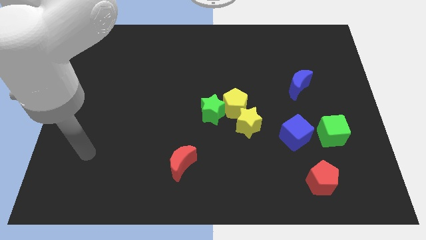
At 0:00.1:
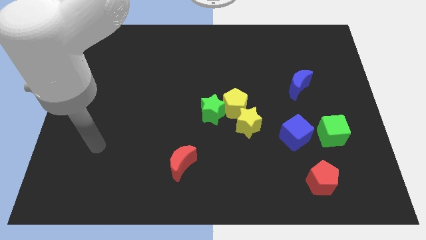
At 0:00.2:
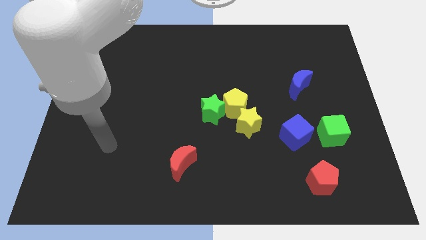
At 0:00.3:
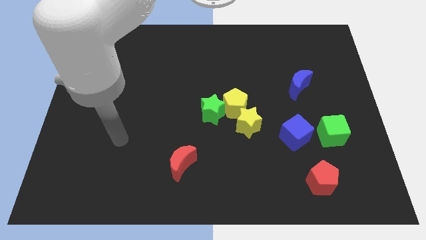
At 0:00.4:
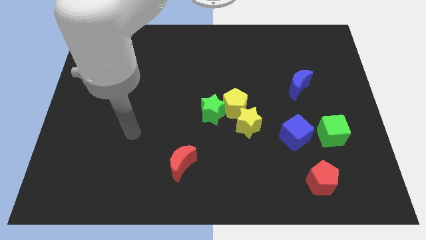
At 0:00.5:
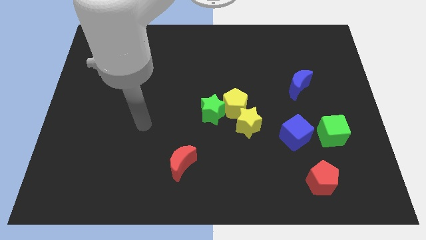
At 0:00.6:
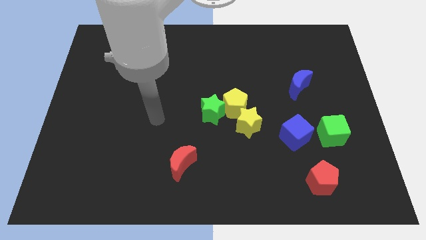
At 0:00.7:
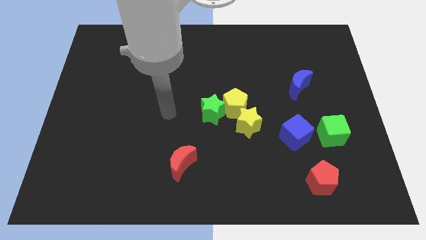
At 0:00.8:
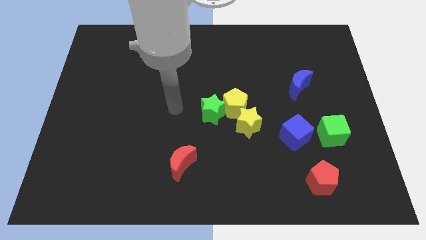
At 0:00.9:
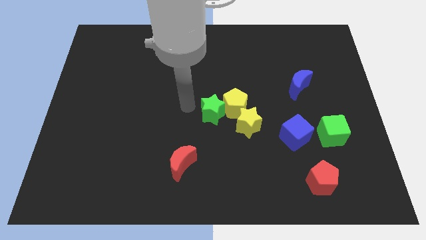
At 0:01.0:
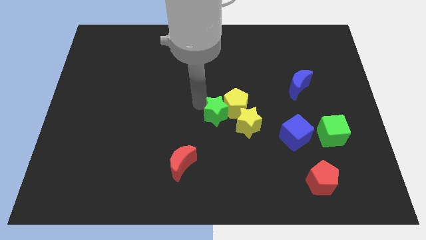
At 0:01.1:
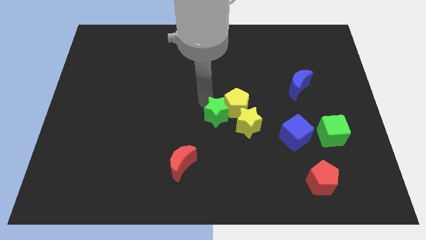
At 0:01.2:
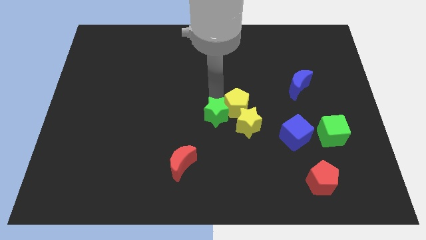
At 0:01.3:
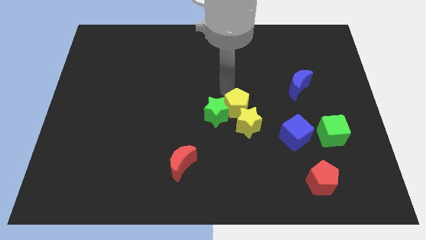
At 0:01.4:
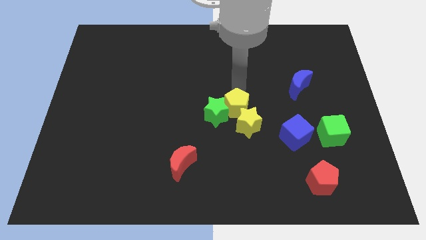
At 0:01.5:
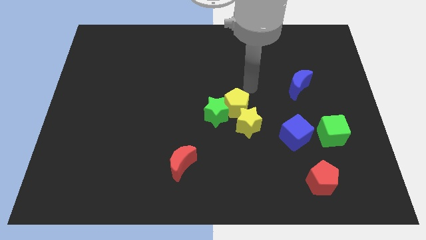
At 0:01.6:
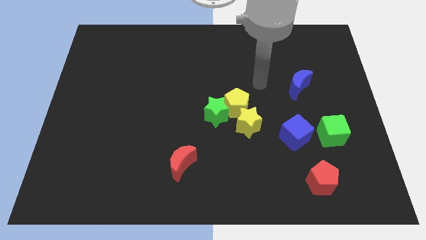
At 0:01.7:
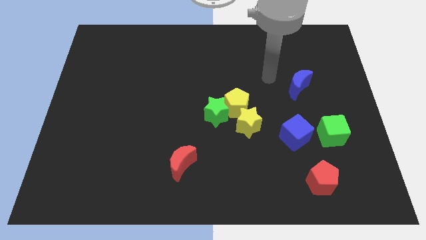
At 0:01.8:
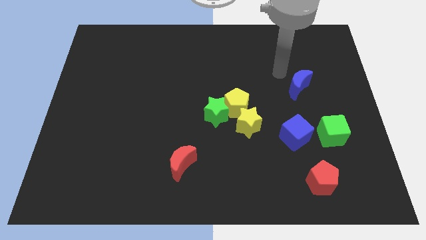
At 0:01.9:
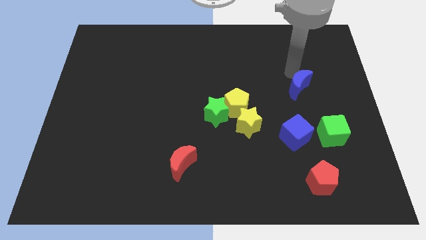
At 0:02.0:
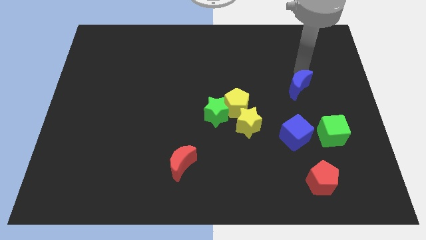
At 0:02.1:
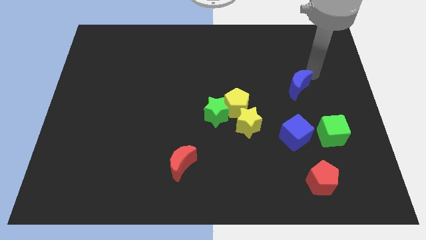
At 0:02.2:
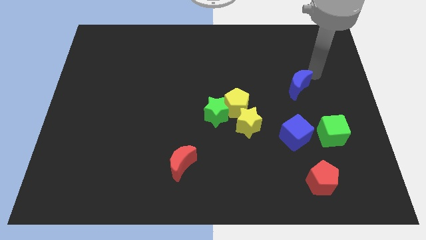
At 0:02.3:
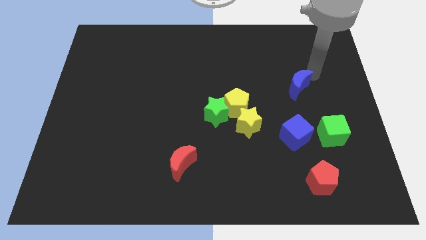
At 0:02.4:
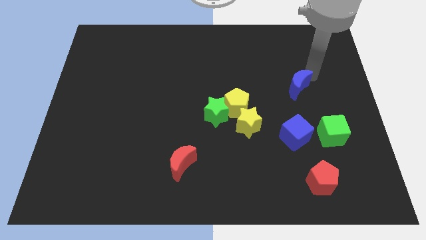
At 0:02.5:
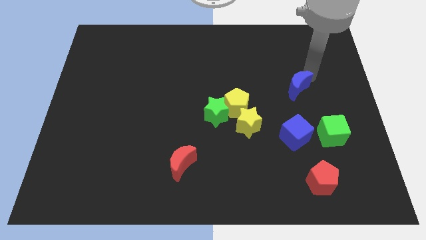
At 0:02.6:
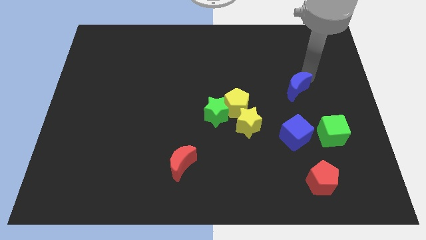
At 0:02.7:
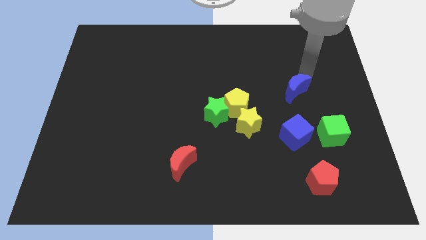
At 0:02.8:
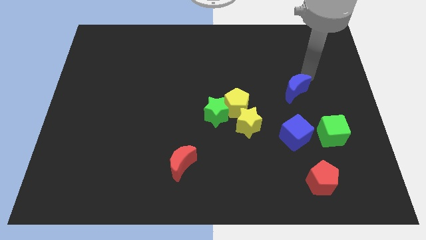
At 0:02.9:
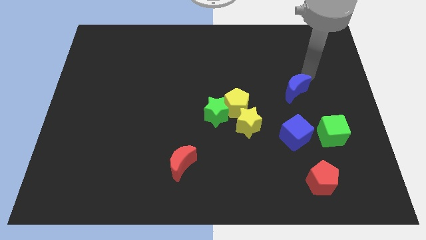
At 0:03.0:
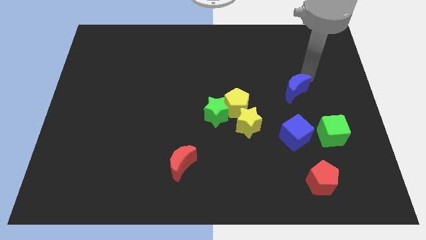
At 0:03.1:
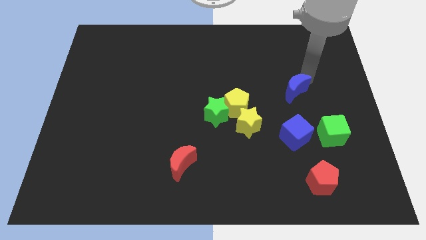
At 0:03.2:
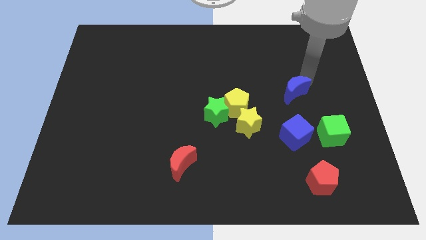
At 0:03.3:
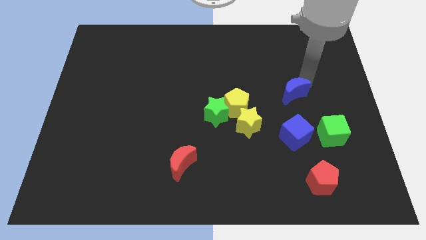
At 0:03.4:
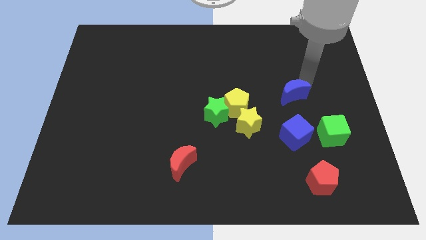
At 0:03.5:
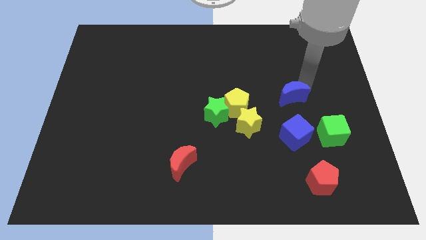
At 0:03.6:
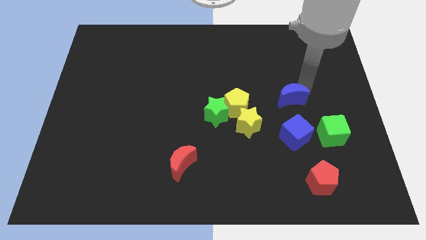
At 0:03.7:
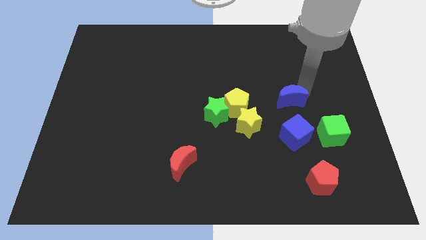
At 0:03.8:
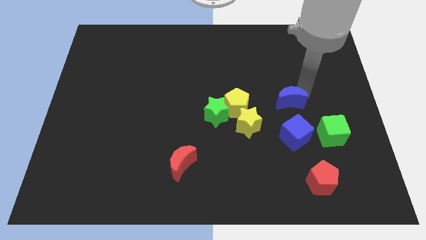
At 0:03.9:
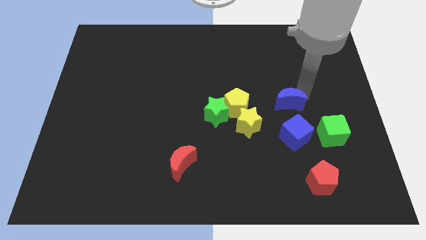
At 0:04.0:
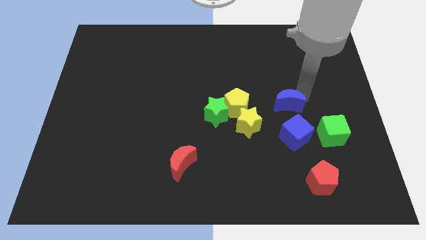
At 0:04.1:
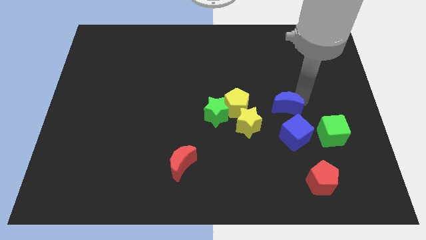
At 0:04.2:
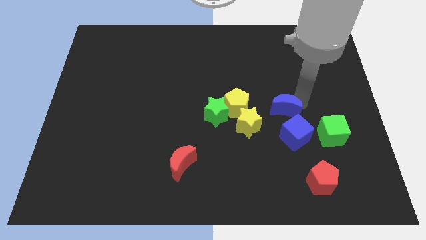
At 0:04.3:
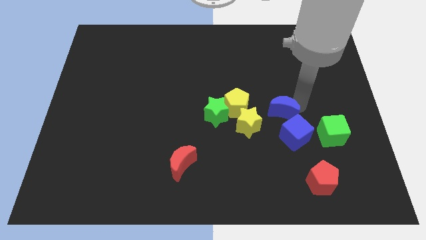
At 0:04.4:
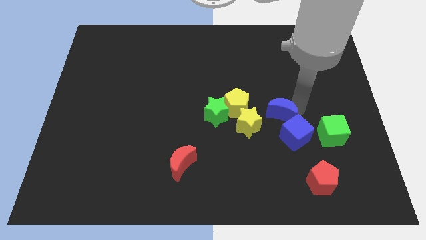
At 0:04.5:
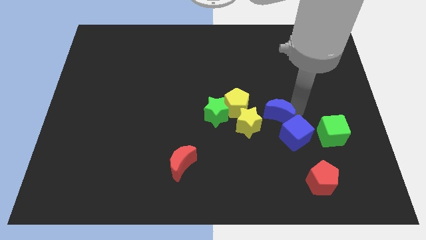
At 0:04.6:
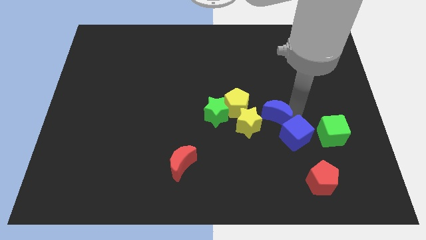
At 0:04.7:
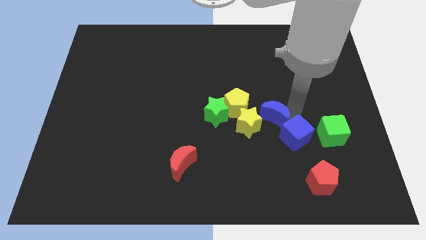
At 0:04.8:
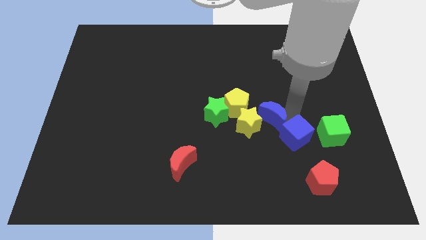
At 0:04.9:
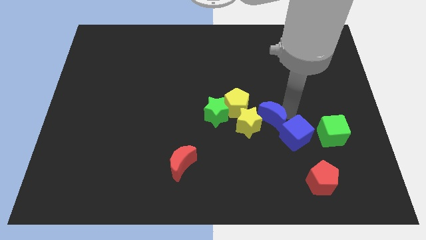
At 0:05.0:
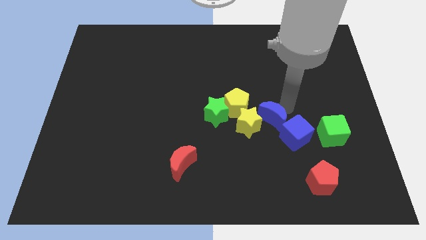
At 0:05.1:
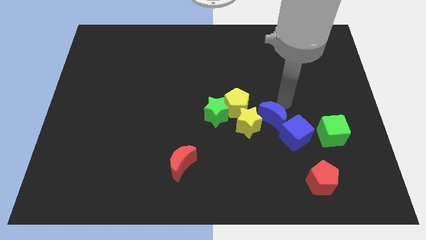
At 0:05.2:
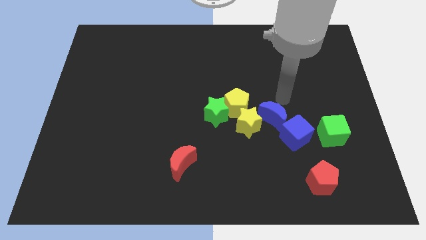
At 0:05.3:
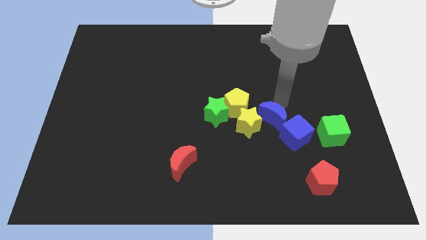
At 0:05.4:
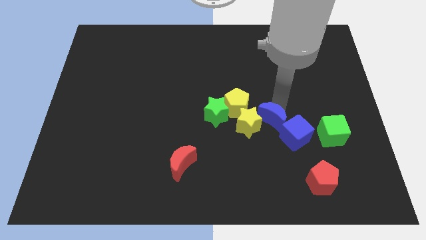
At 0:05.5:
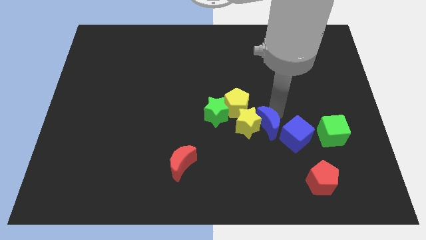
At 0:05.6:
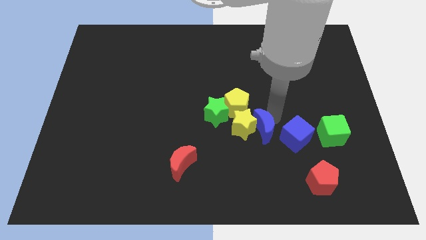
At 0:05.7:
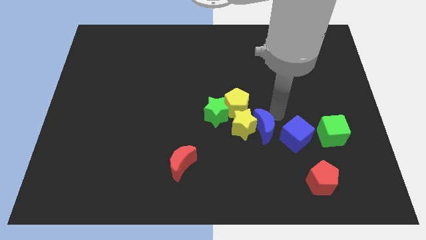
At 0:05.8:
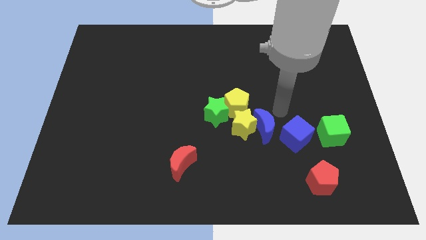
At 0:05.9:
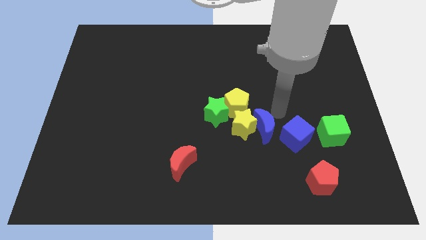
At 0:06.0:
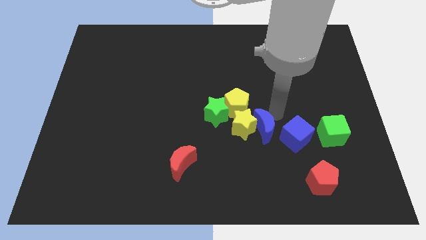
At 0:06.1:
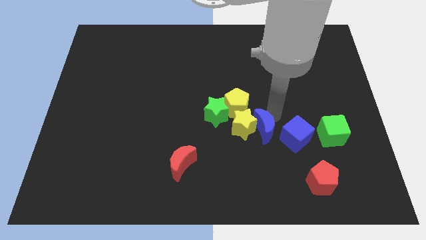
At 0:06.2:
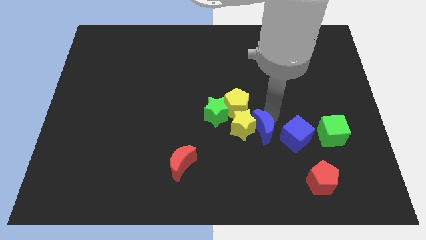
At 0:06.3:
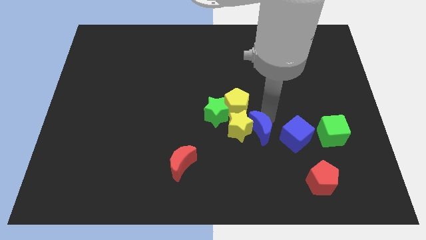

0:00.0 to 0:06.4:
push the blue moon diagonally down and to the right of the green star
